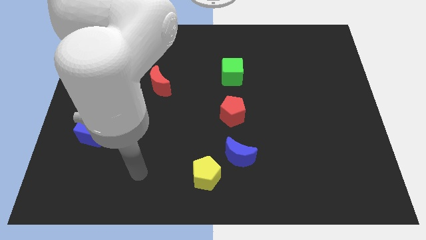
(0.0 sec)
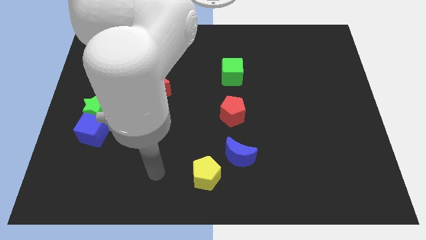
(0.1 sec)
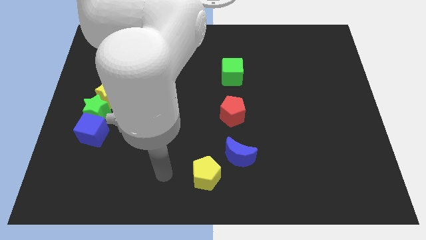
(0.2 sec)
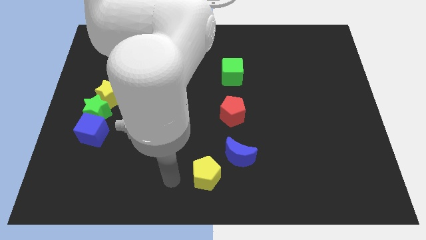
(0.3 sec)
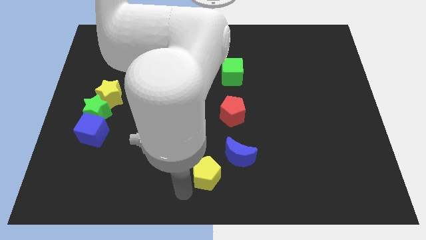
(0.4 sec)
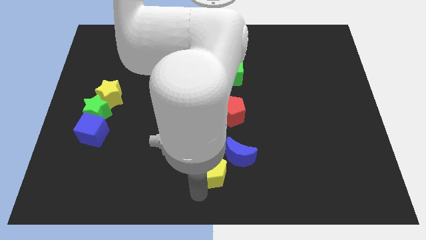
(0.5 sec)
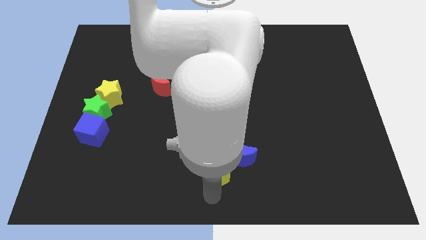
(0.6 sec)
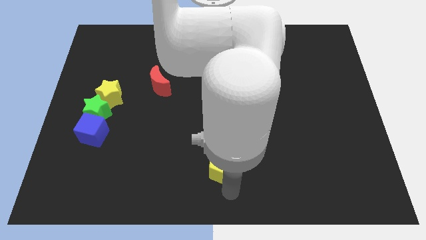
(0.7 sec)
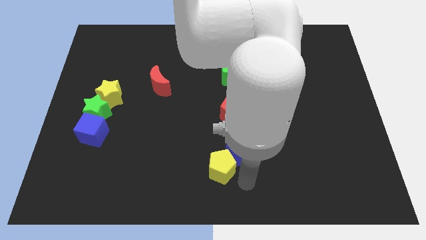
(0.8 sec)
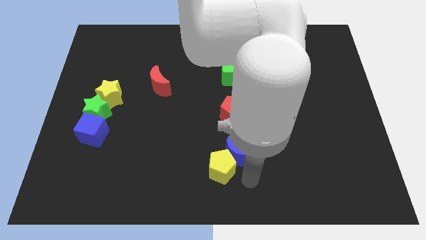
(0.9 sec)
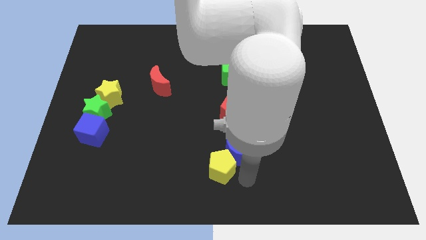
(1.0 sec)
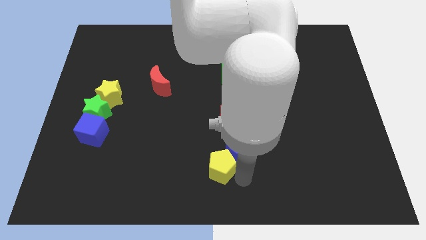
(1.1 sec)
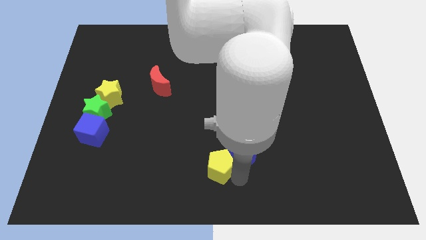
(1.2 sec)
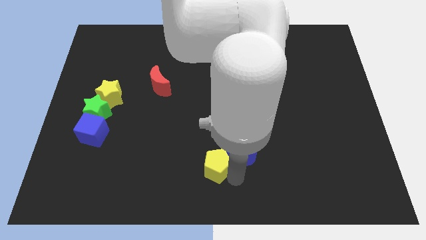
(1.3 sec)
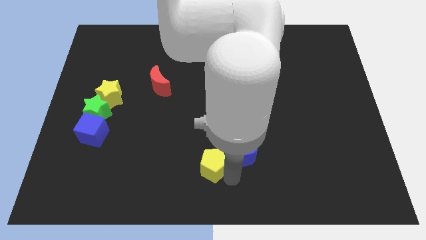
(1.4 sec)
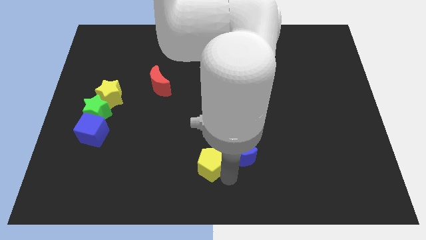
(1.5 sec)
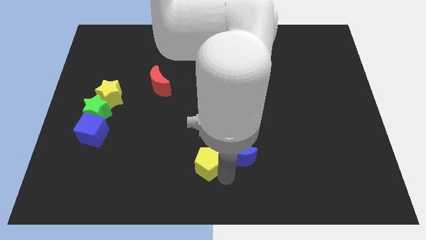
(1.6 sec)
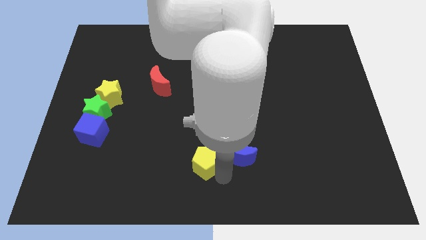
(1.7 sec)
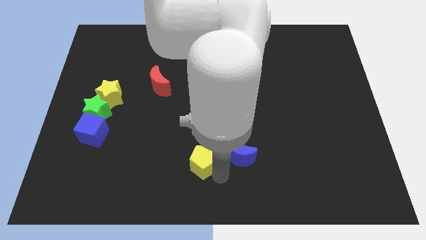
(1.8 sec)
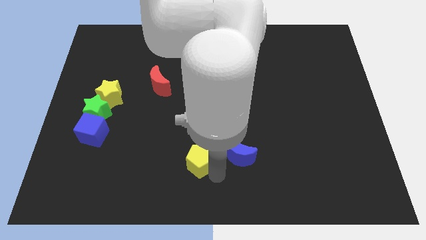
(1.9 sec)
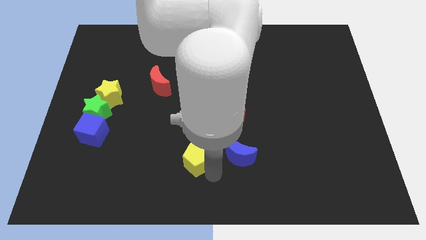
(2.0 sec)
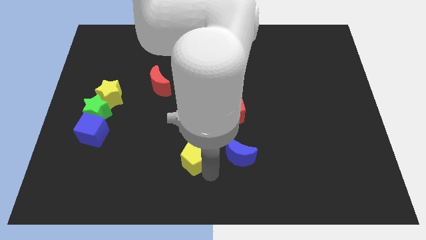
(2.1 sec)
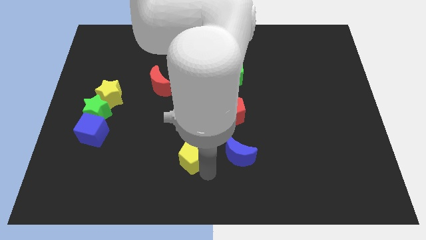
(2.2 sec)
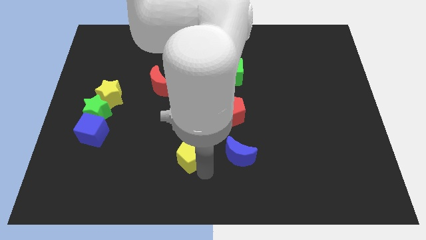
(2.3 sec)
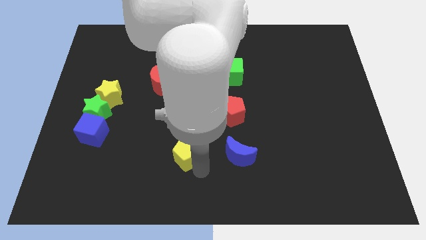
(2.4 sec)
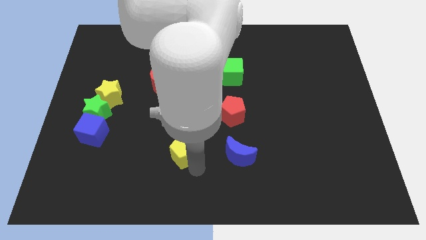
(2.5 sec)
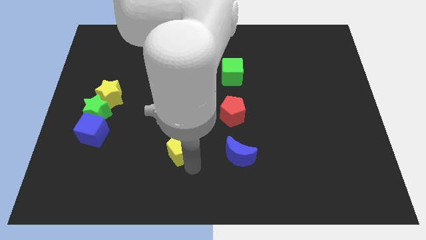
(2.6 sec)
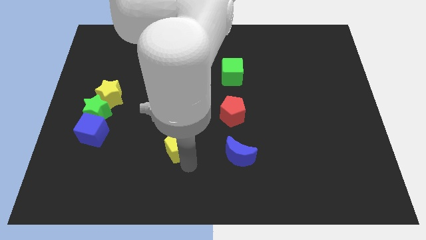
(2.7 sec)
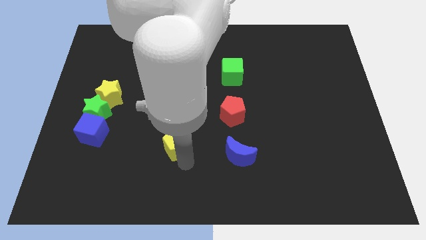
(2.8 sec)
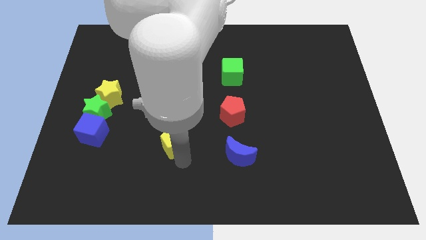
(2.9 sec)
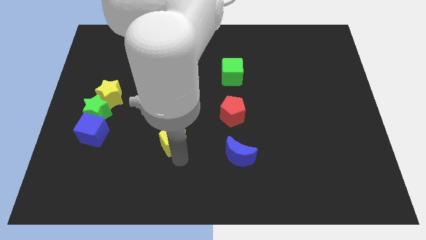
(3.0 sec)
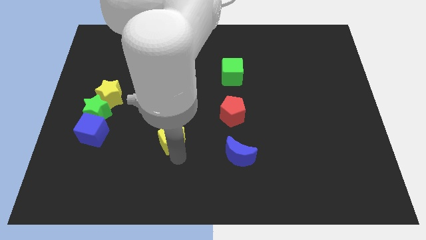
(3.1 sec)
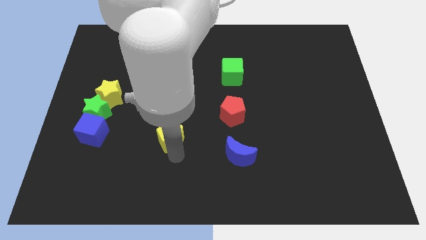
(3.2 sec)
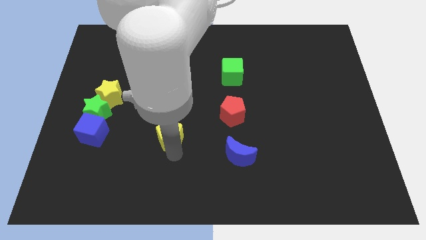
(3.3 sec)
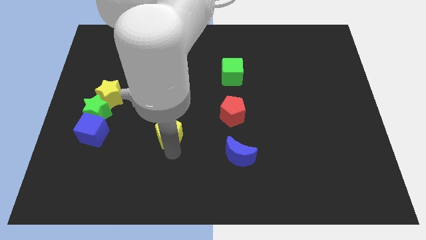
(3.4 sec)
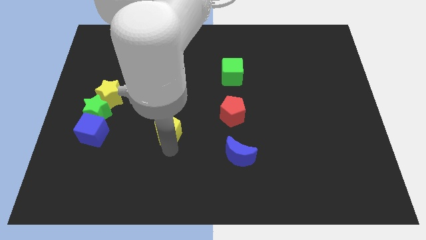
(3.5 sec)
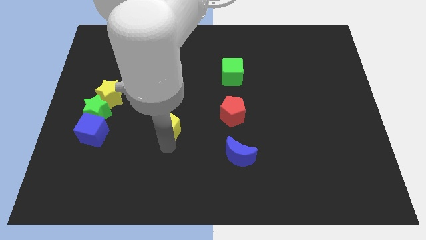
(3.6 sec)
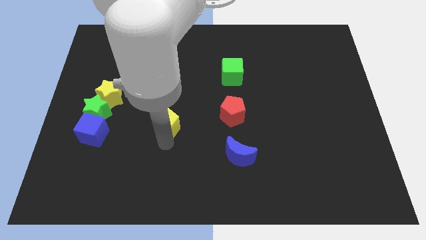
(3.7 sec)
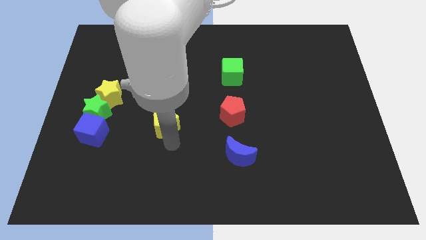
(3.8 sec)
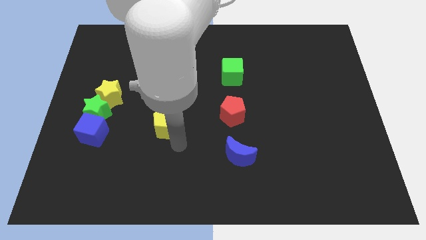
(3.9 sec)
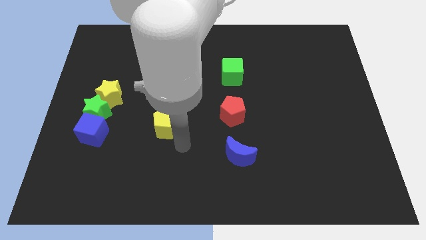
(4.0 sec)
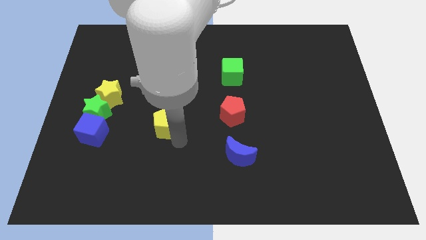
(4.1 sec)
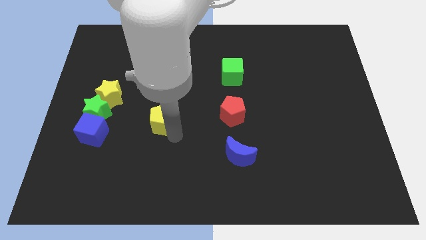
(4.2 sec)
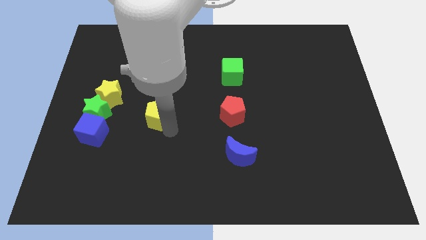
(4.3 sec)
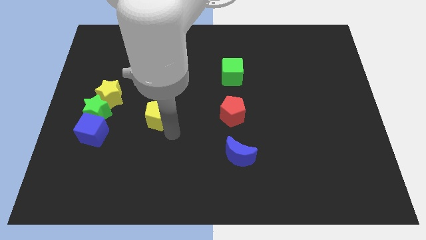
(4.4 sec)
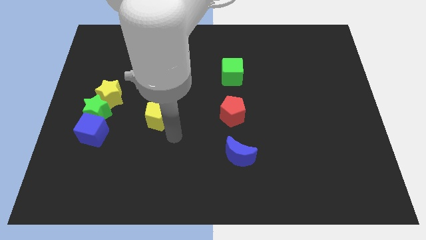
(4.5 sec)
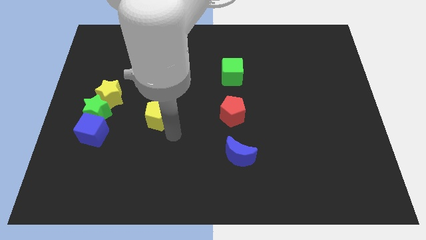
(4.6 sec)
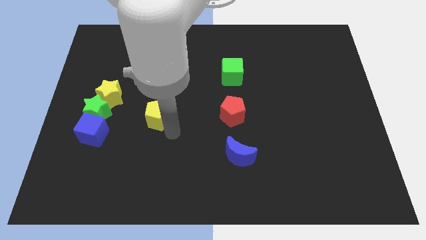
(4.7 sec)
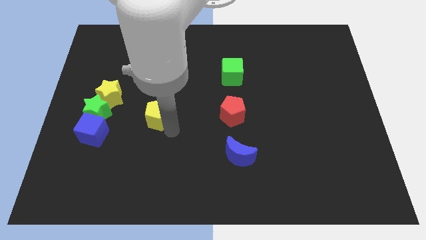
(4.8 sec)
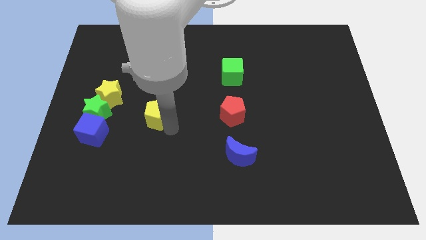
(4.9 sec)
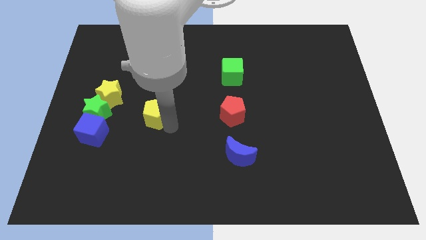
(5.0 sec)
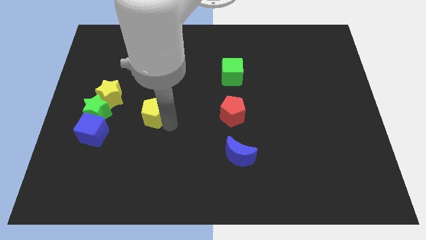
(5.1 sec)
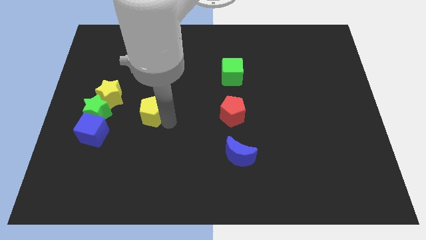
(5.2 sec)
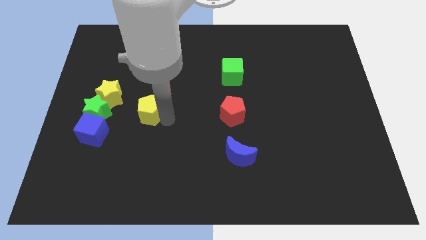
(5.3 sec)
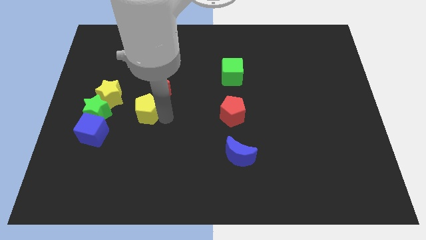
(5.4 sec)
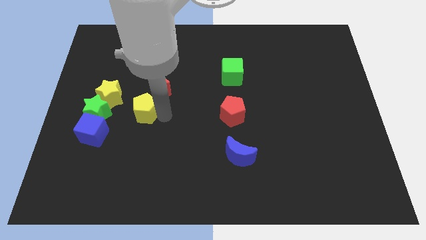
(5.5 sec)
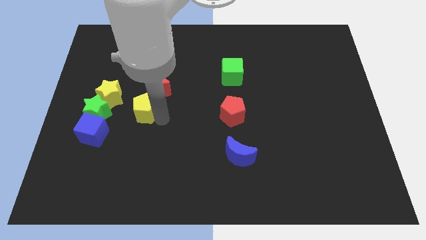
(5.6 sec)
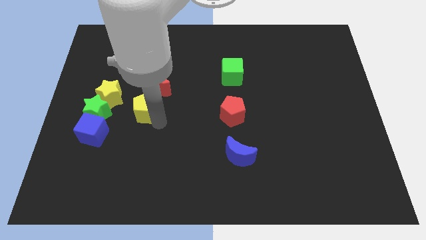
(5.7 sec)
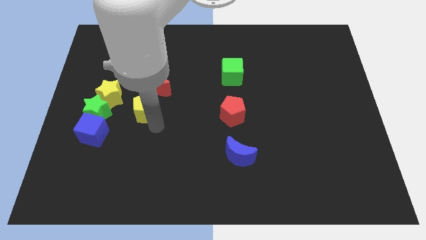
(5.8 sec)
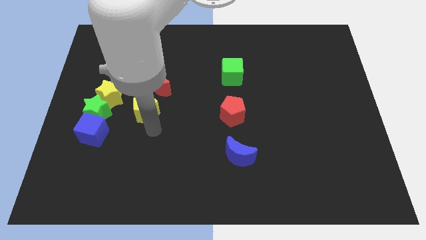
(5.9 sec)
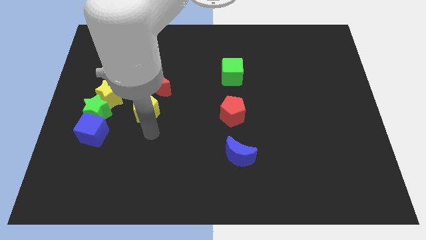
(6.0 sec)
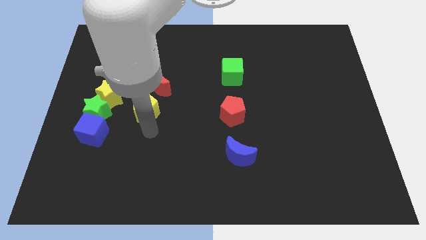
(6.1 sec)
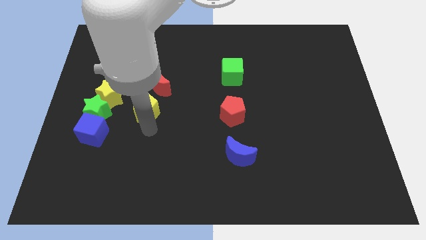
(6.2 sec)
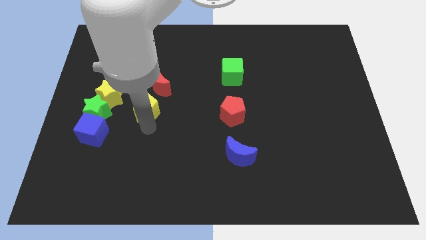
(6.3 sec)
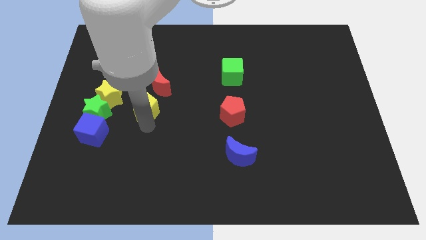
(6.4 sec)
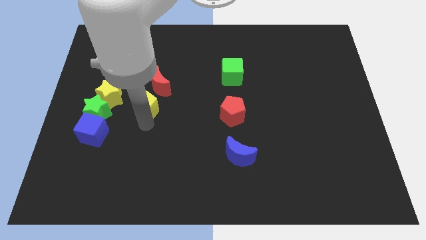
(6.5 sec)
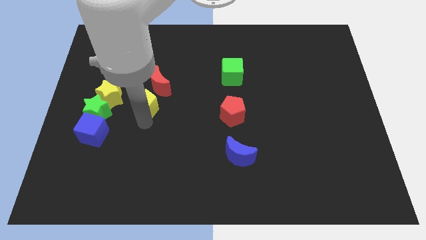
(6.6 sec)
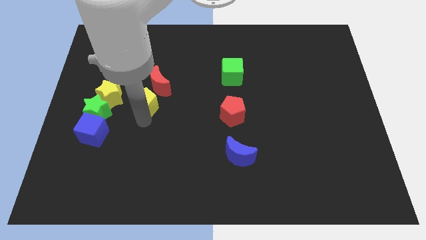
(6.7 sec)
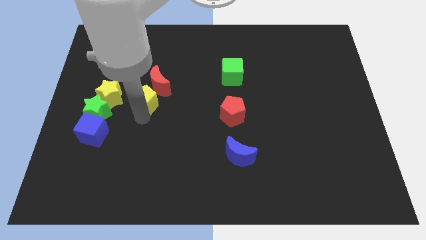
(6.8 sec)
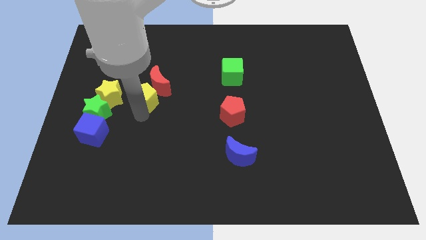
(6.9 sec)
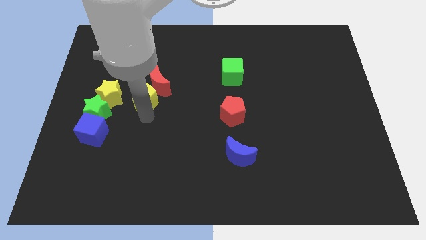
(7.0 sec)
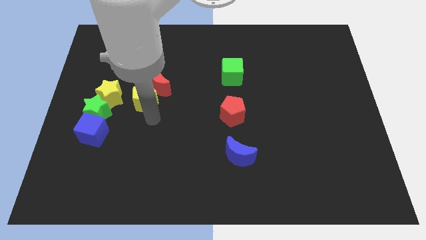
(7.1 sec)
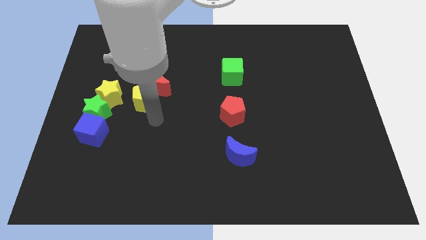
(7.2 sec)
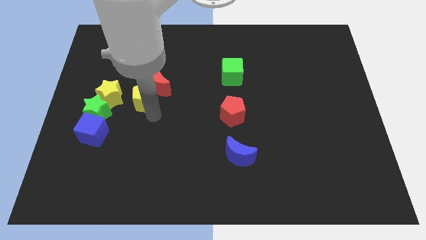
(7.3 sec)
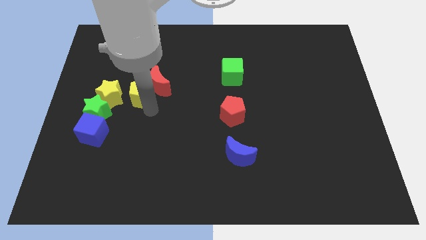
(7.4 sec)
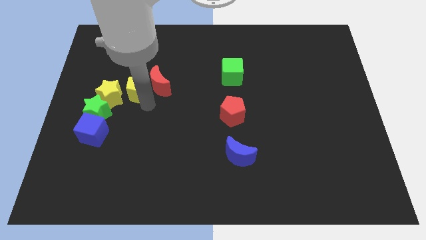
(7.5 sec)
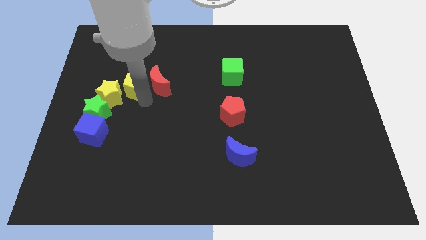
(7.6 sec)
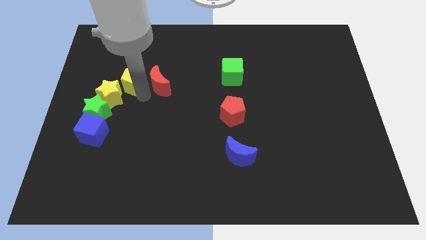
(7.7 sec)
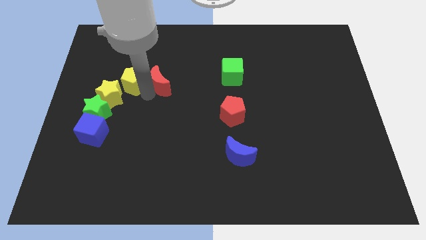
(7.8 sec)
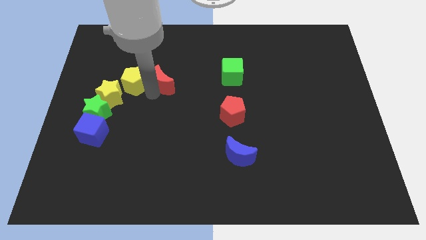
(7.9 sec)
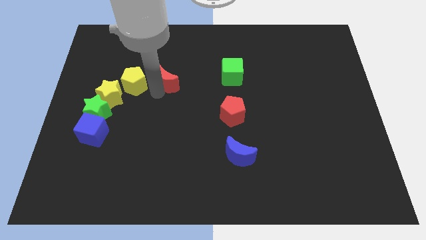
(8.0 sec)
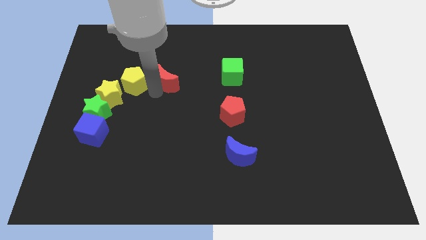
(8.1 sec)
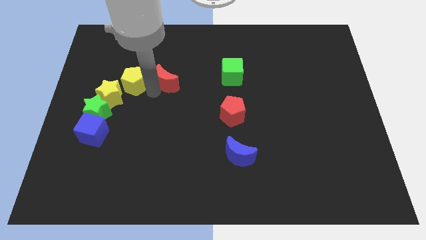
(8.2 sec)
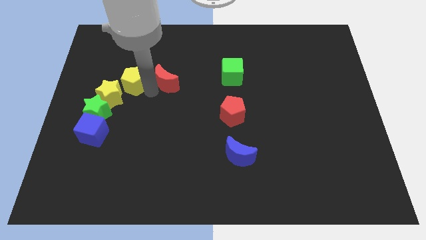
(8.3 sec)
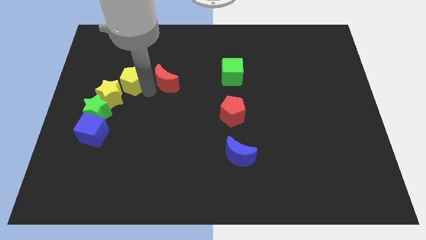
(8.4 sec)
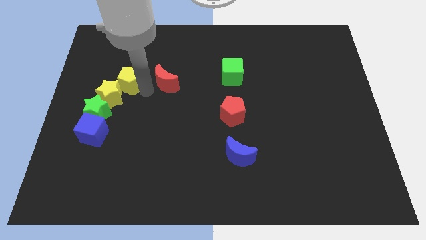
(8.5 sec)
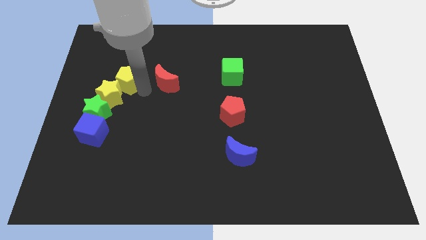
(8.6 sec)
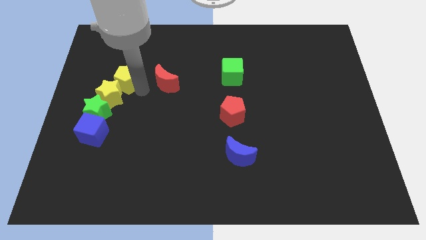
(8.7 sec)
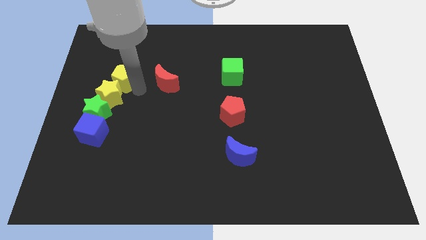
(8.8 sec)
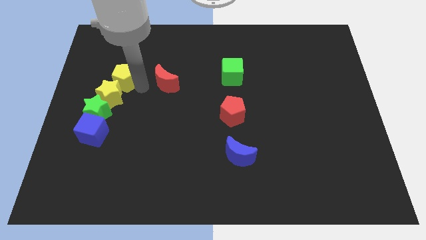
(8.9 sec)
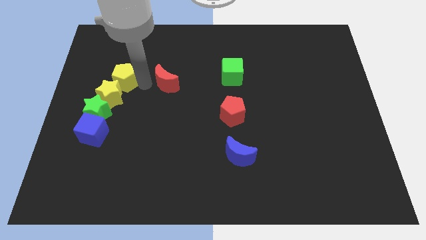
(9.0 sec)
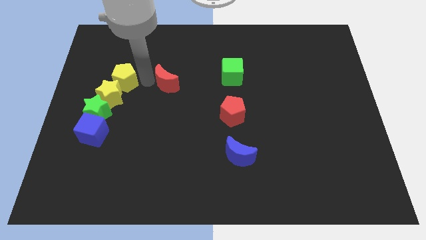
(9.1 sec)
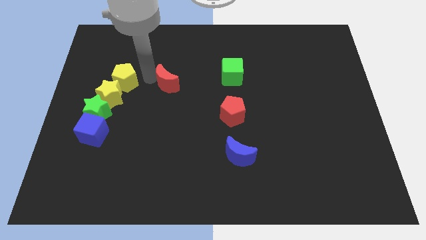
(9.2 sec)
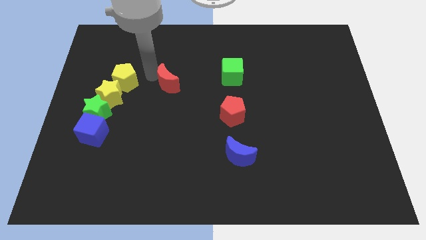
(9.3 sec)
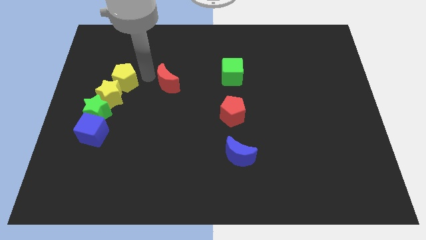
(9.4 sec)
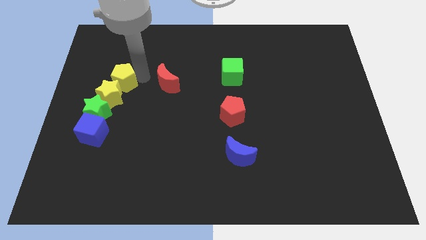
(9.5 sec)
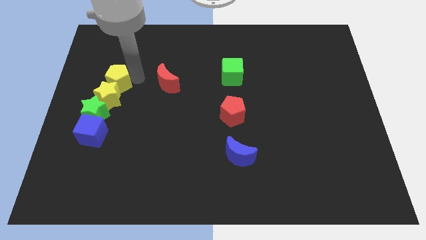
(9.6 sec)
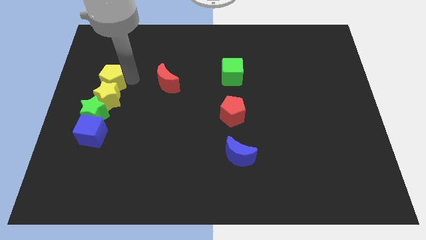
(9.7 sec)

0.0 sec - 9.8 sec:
slide the yellow pentagon to the top of the blue cube
